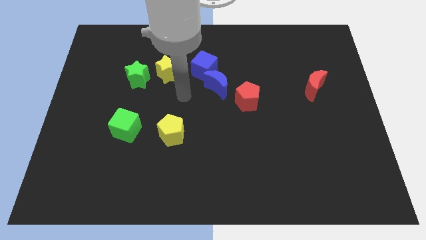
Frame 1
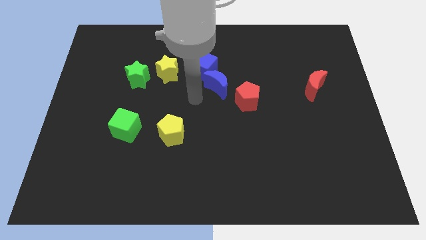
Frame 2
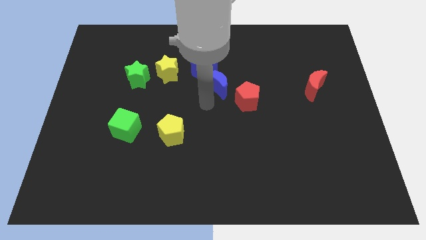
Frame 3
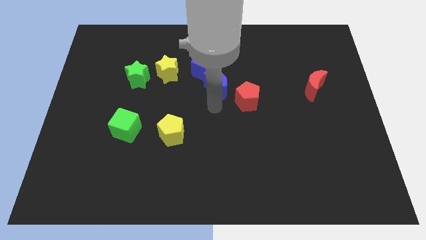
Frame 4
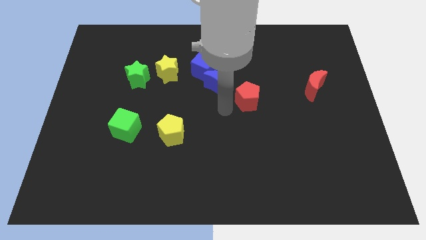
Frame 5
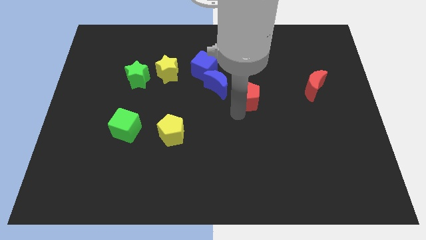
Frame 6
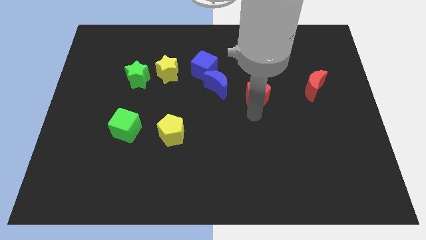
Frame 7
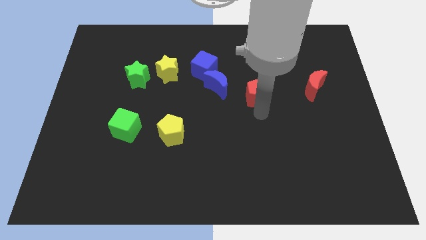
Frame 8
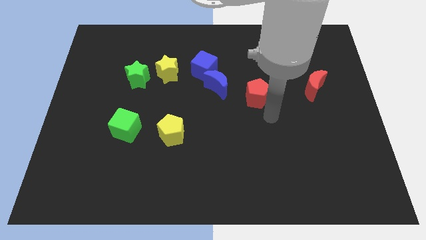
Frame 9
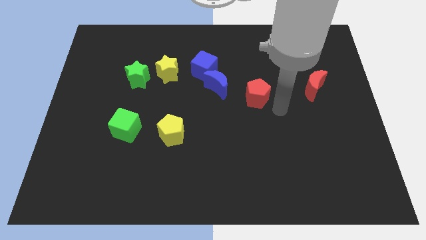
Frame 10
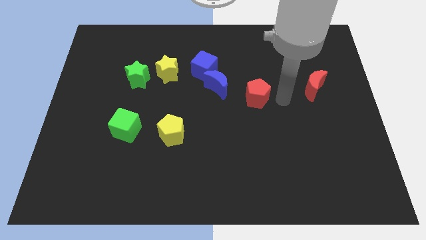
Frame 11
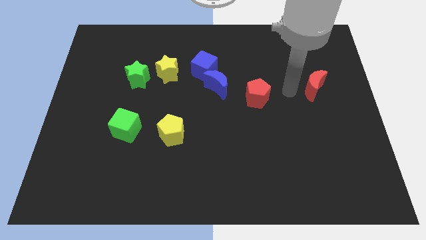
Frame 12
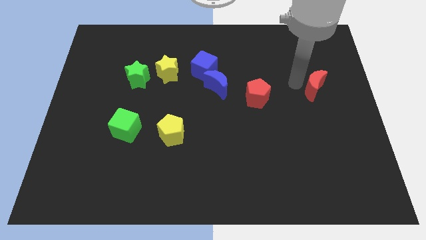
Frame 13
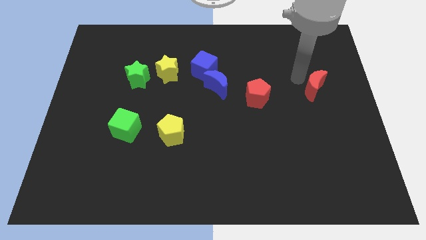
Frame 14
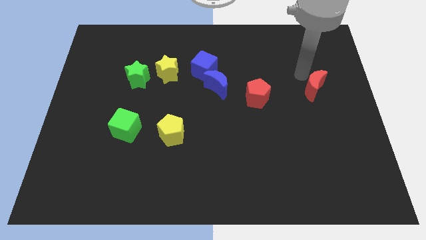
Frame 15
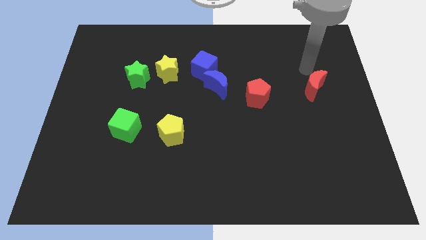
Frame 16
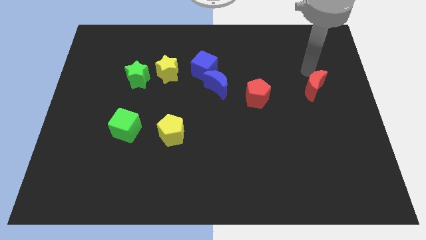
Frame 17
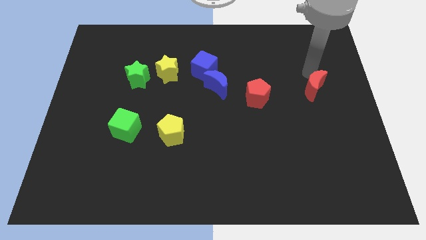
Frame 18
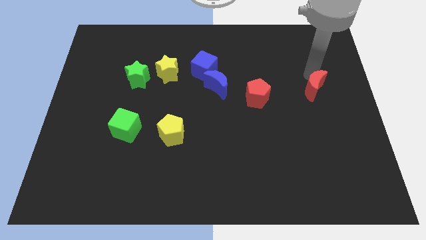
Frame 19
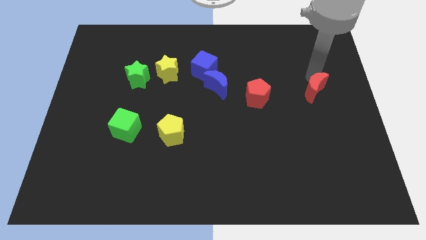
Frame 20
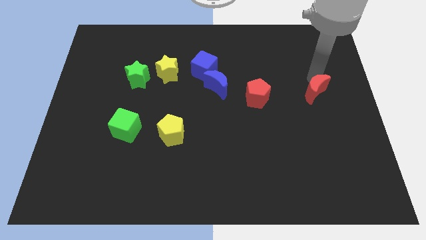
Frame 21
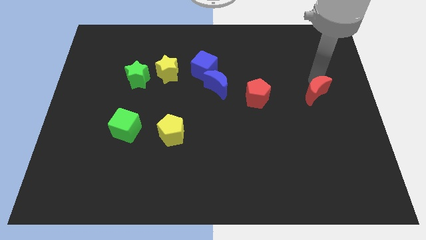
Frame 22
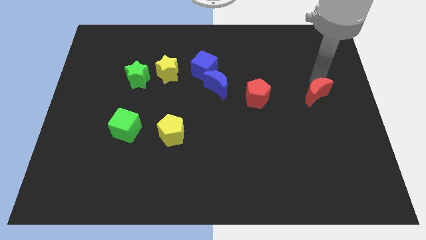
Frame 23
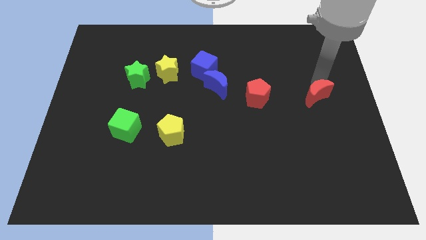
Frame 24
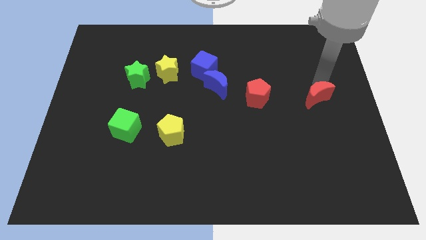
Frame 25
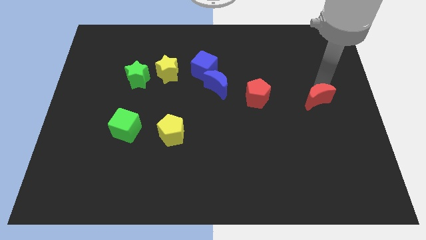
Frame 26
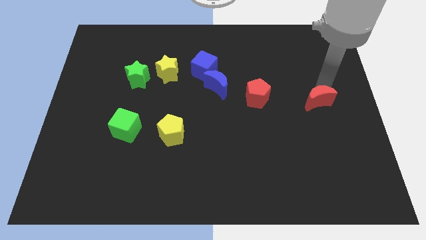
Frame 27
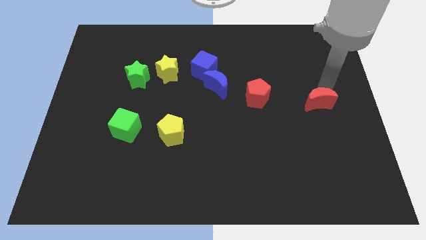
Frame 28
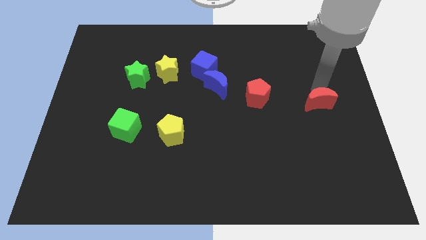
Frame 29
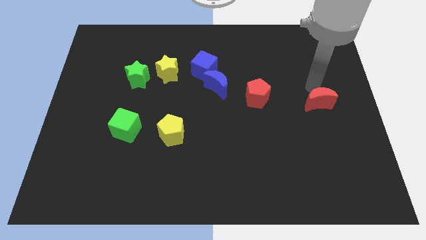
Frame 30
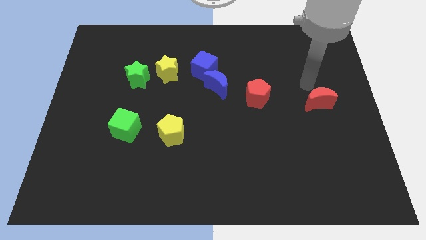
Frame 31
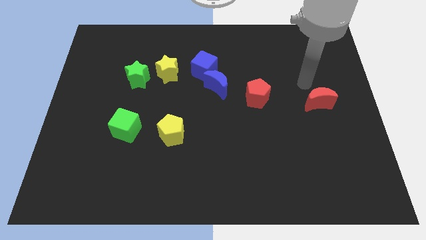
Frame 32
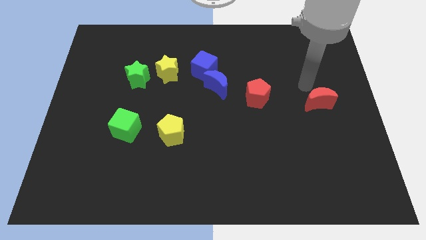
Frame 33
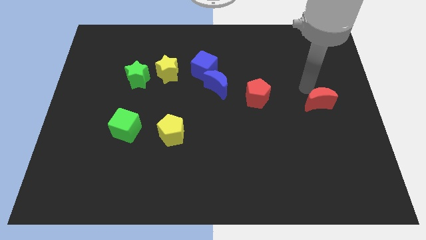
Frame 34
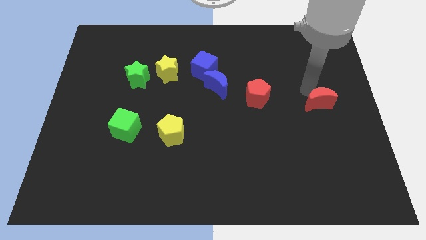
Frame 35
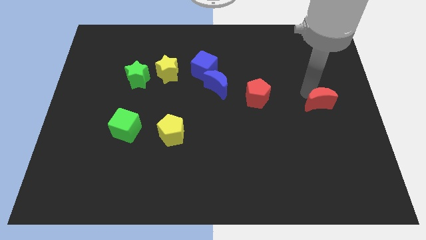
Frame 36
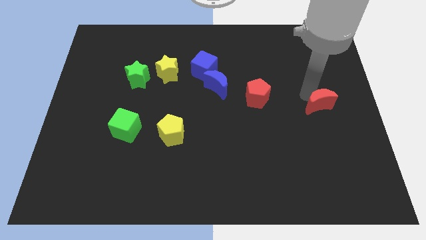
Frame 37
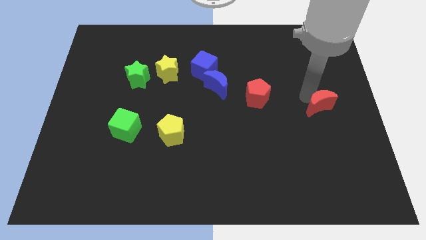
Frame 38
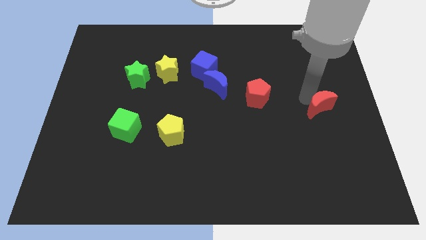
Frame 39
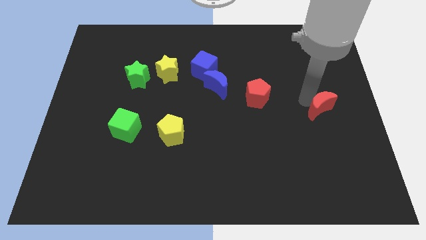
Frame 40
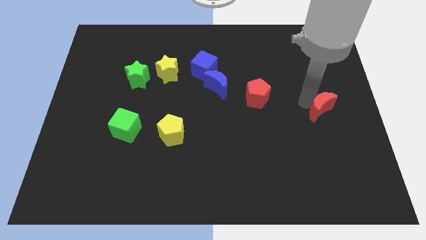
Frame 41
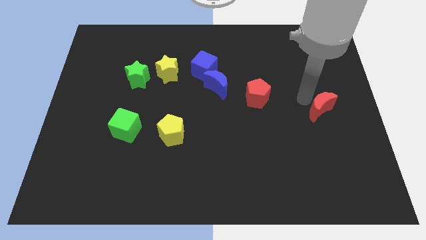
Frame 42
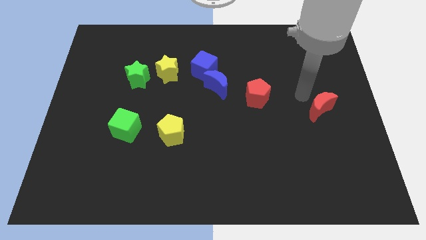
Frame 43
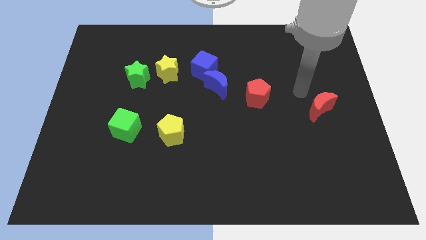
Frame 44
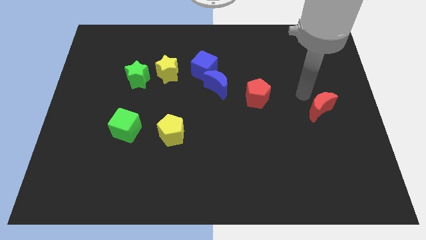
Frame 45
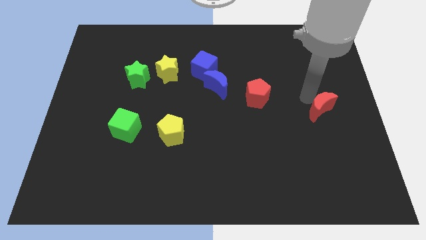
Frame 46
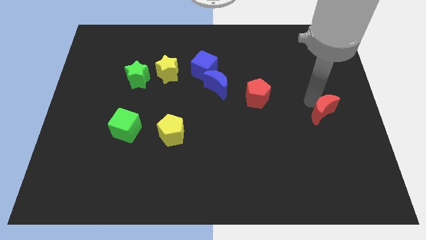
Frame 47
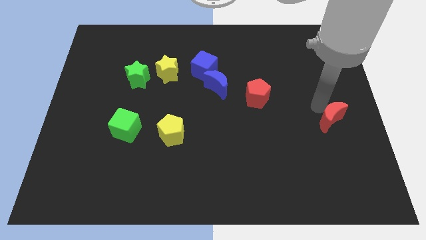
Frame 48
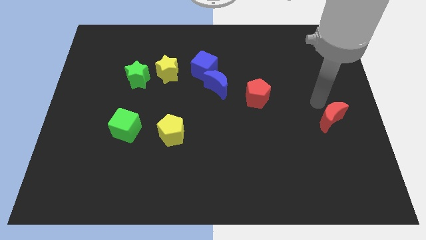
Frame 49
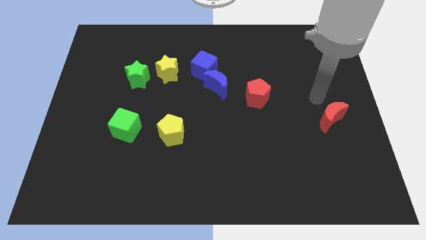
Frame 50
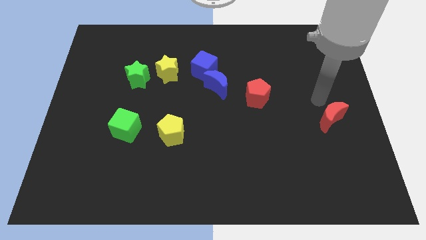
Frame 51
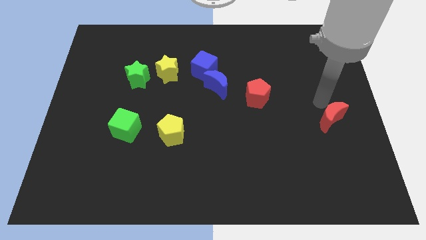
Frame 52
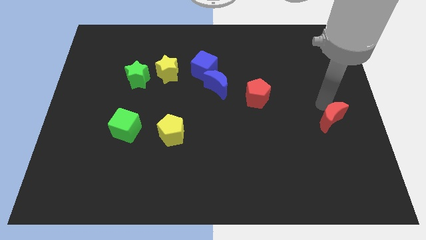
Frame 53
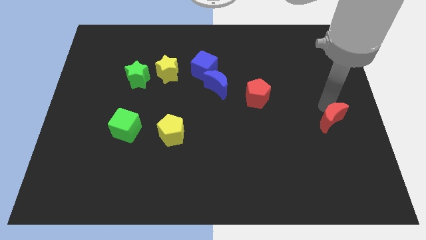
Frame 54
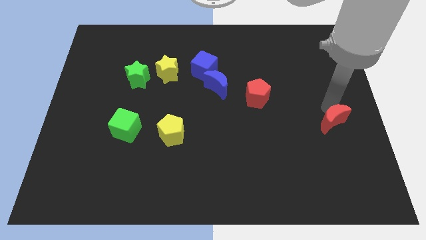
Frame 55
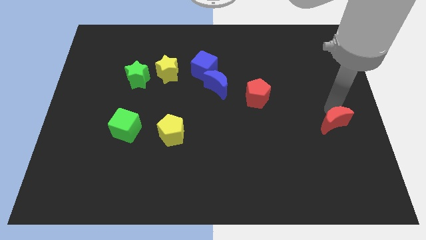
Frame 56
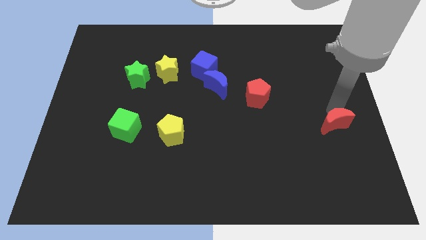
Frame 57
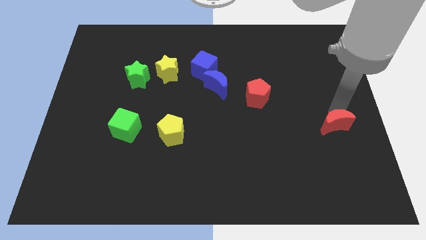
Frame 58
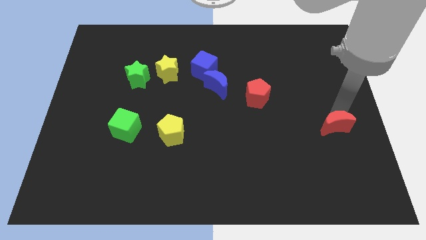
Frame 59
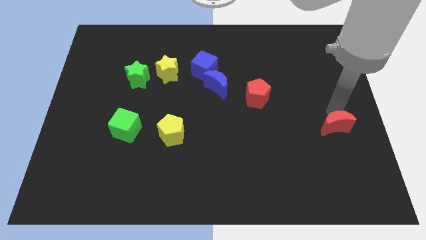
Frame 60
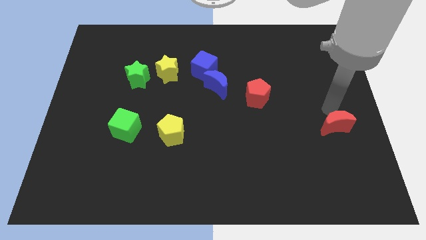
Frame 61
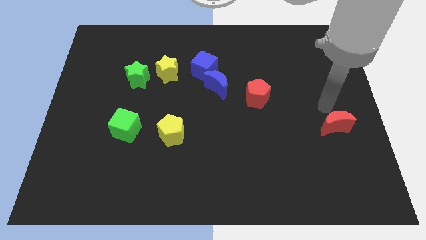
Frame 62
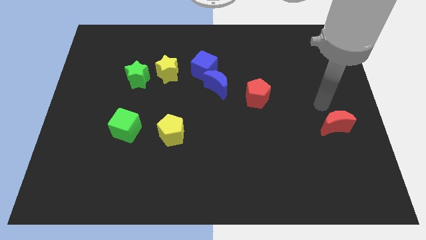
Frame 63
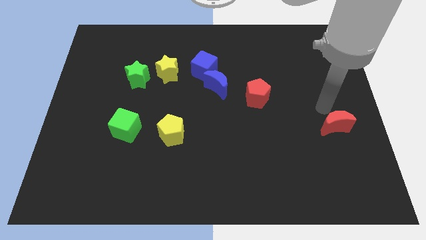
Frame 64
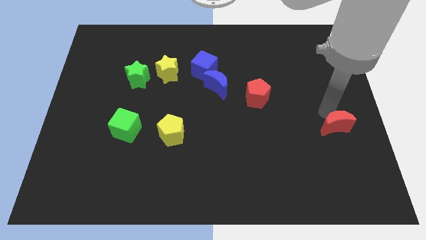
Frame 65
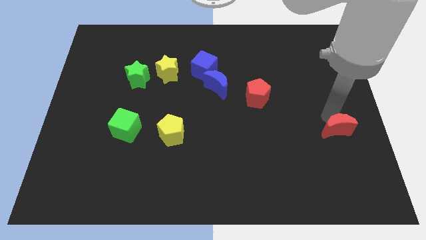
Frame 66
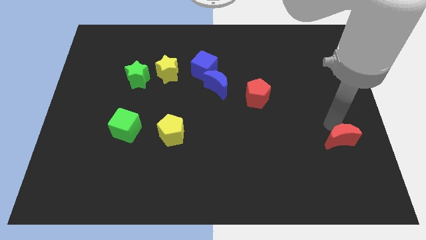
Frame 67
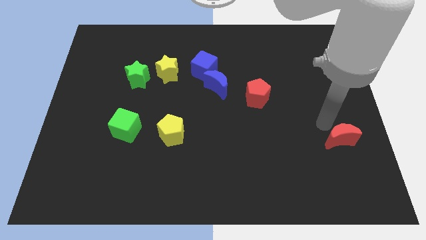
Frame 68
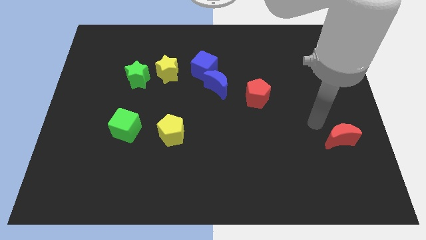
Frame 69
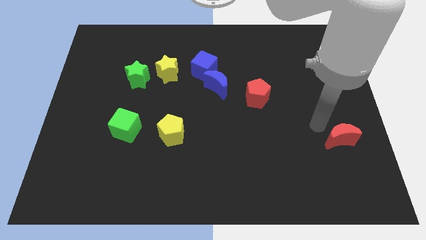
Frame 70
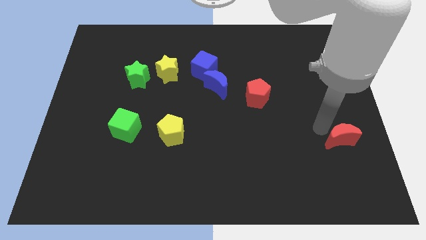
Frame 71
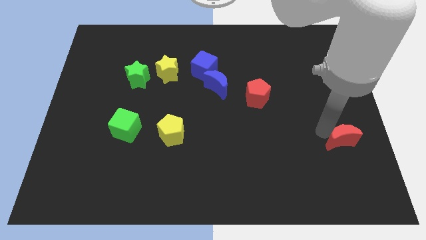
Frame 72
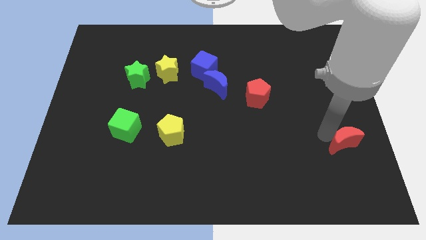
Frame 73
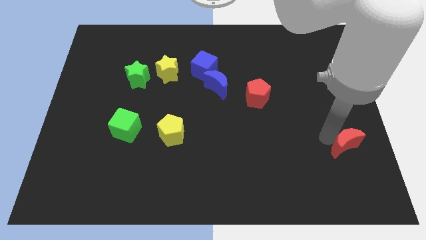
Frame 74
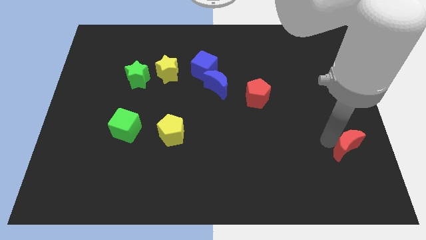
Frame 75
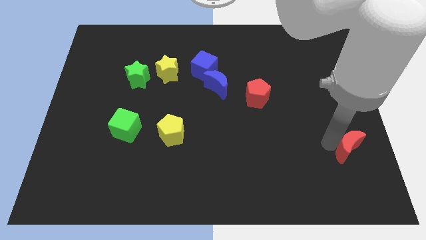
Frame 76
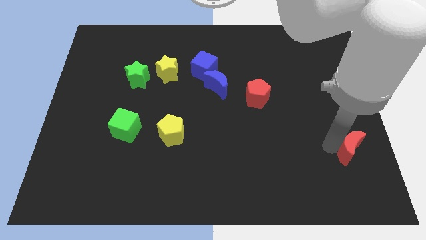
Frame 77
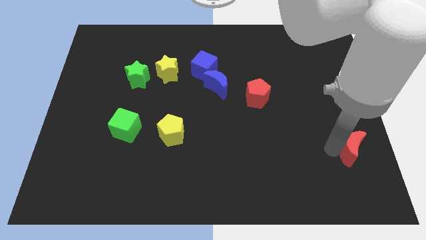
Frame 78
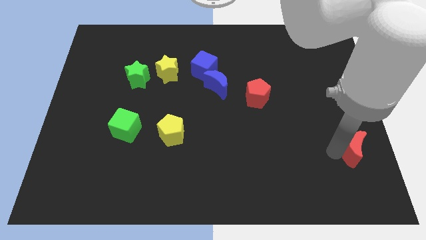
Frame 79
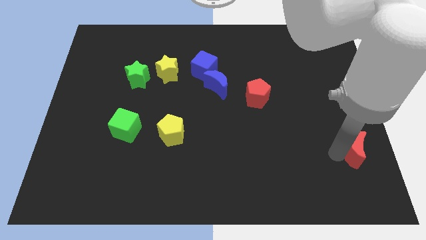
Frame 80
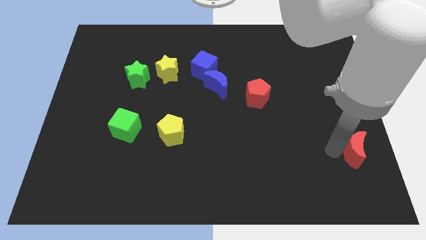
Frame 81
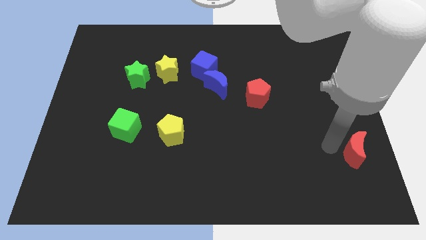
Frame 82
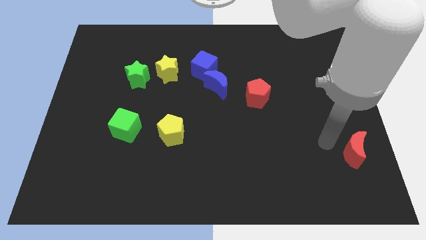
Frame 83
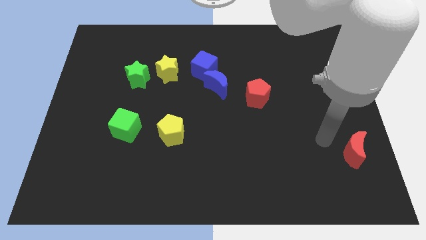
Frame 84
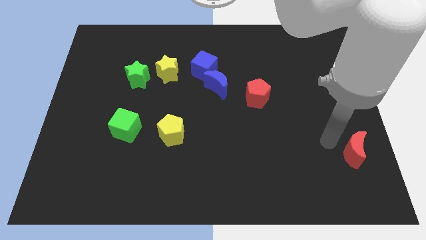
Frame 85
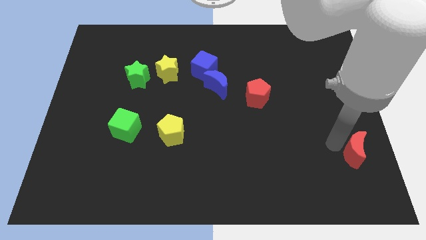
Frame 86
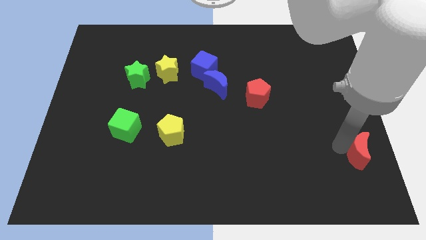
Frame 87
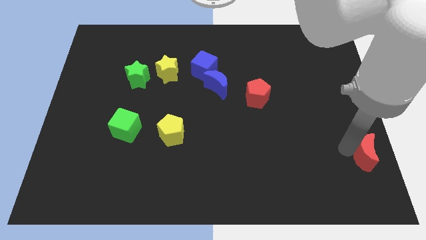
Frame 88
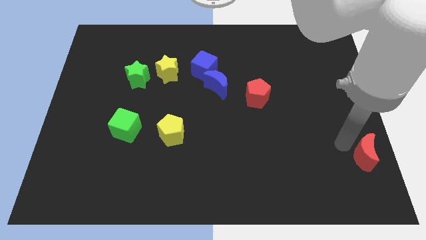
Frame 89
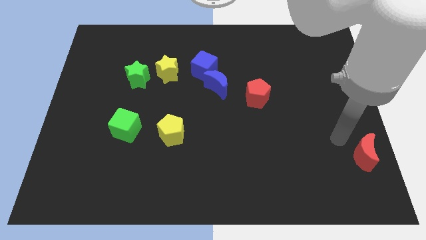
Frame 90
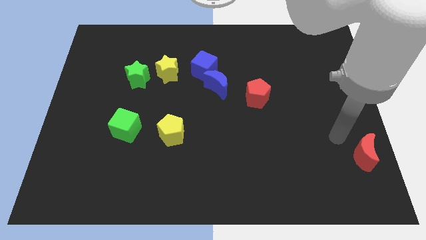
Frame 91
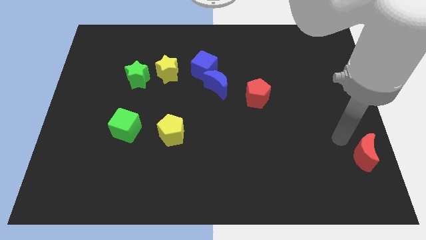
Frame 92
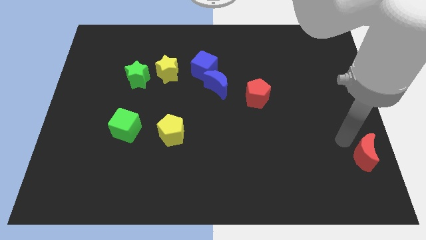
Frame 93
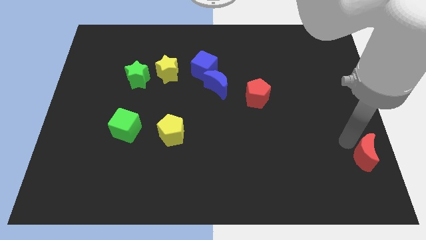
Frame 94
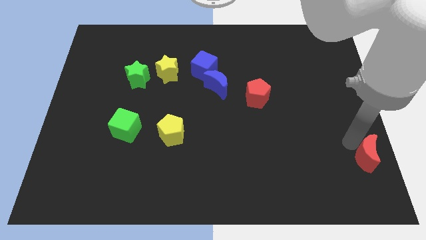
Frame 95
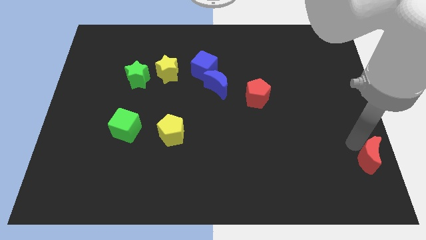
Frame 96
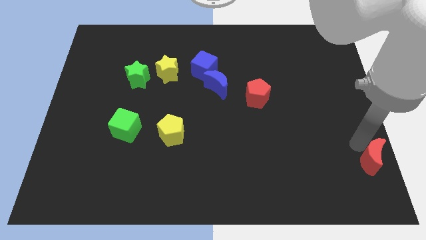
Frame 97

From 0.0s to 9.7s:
move the red moon to the bottom right
